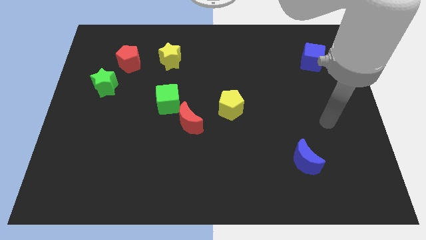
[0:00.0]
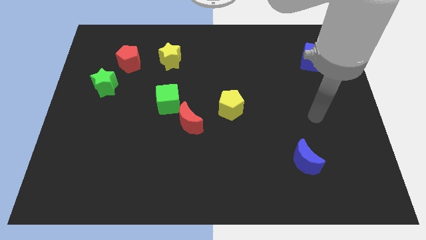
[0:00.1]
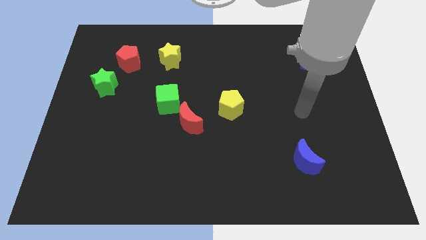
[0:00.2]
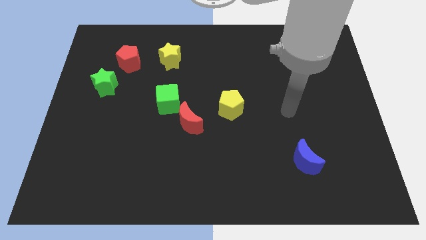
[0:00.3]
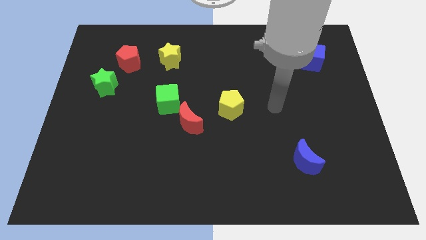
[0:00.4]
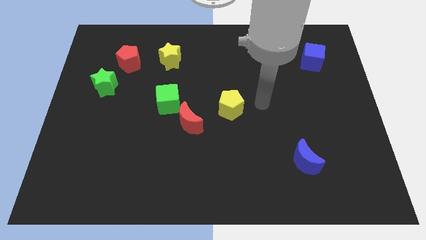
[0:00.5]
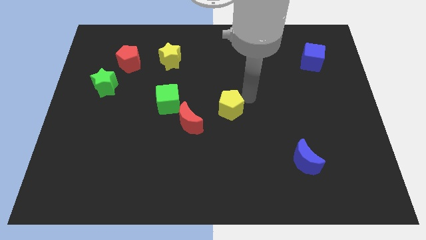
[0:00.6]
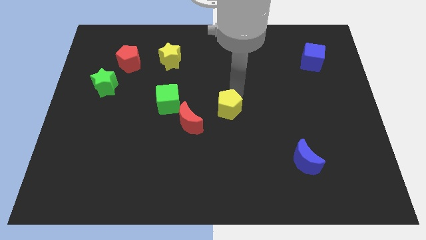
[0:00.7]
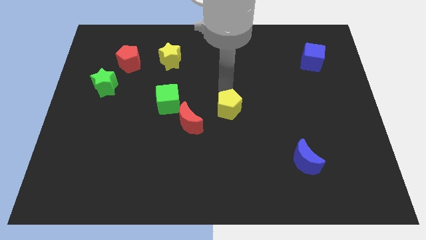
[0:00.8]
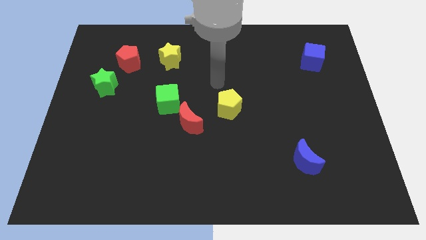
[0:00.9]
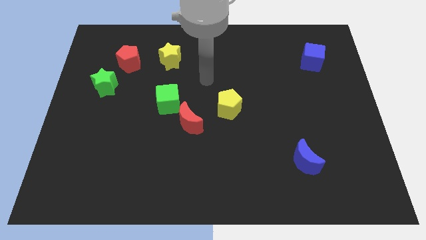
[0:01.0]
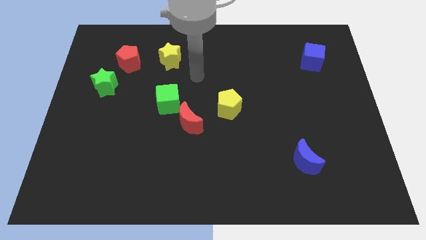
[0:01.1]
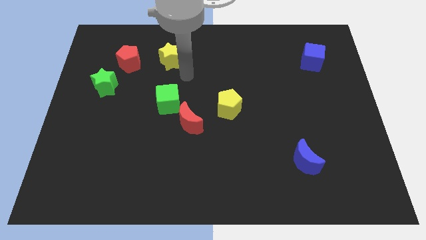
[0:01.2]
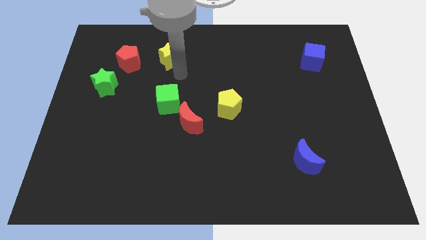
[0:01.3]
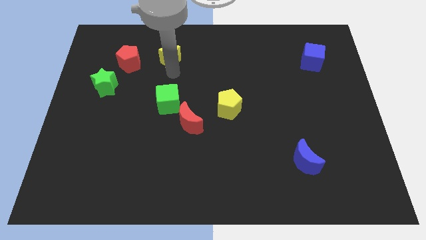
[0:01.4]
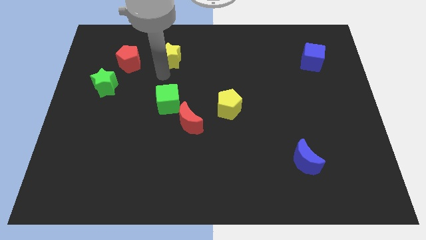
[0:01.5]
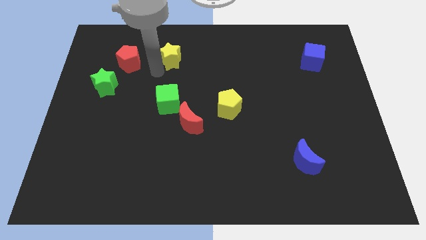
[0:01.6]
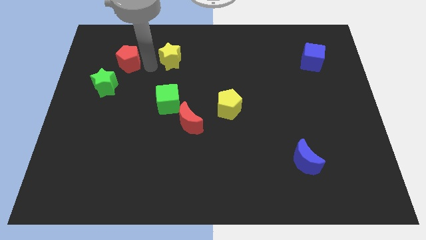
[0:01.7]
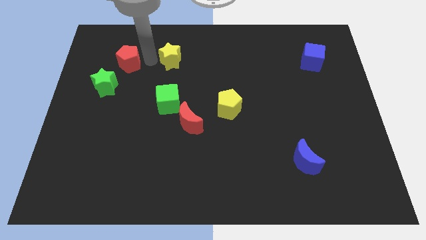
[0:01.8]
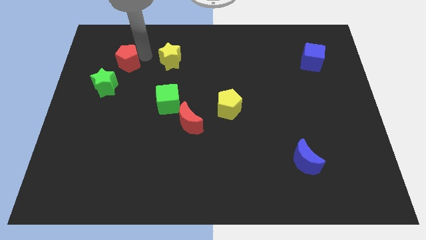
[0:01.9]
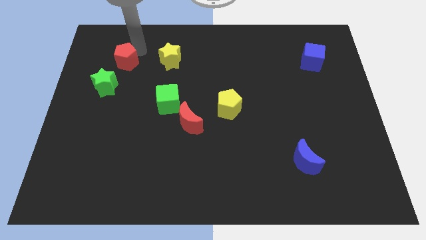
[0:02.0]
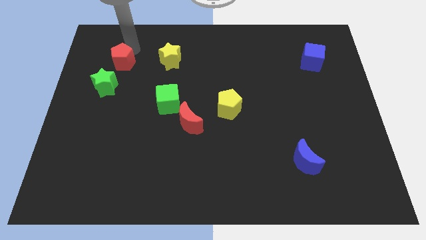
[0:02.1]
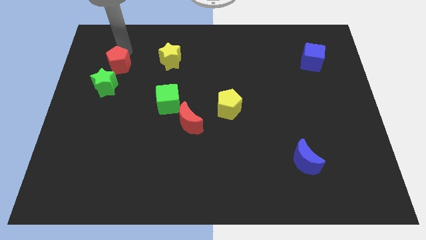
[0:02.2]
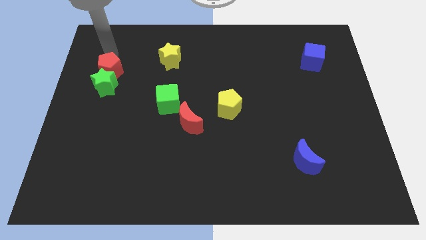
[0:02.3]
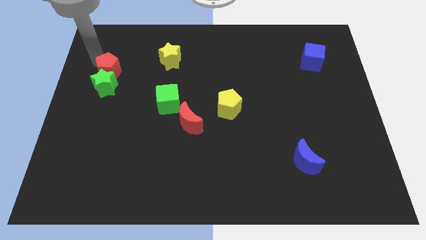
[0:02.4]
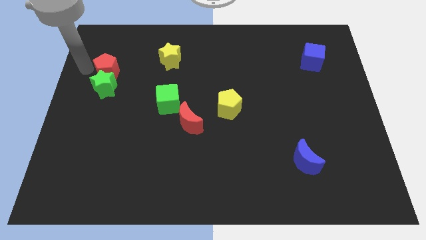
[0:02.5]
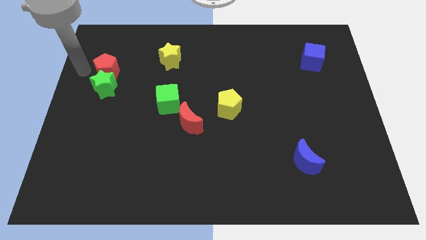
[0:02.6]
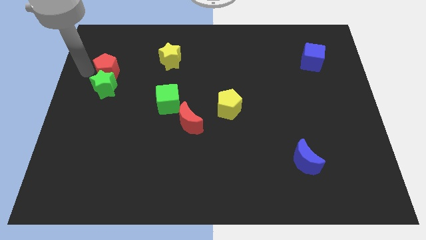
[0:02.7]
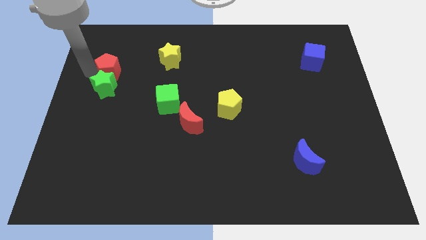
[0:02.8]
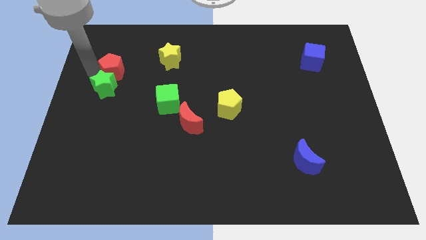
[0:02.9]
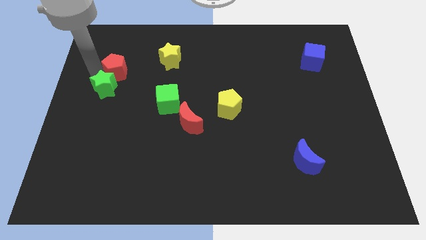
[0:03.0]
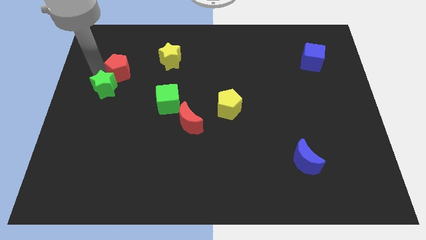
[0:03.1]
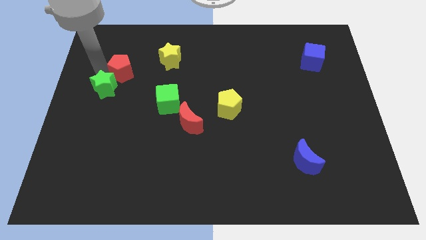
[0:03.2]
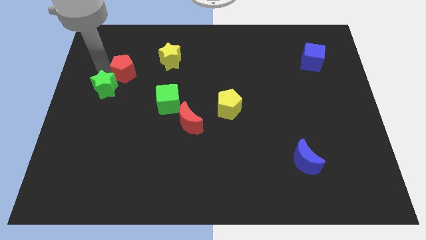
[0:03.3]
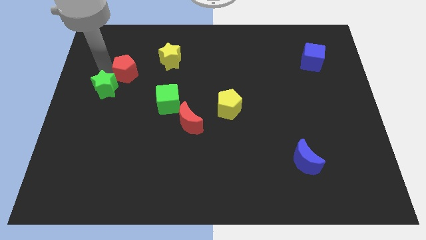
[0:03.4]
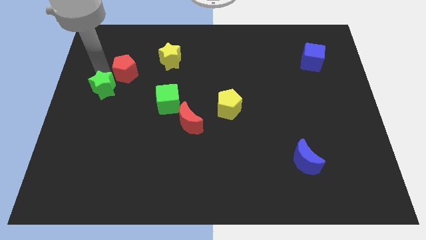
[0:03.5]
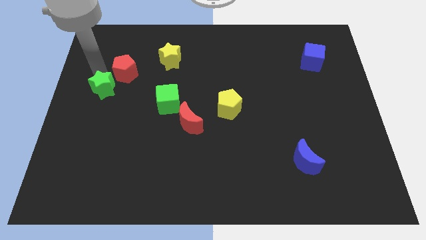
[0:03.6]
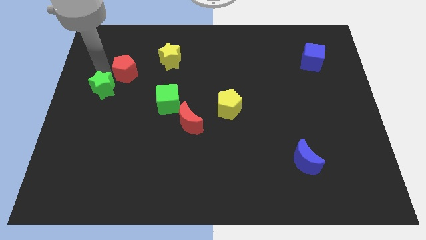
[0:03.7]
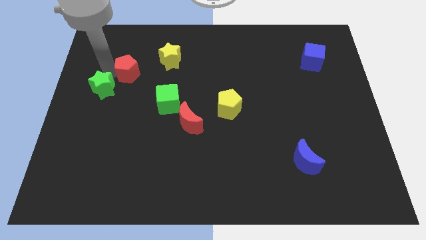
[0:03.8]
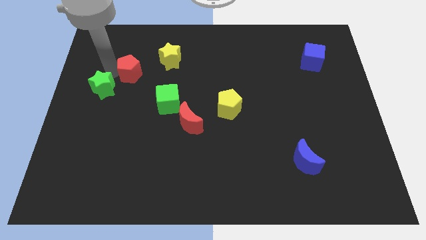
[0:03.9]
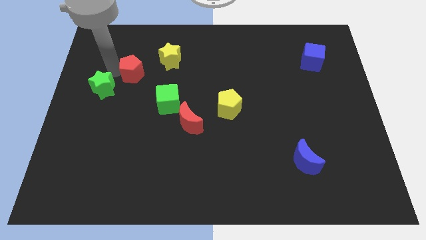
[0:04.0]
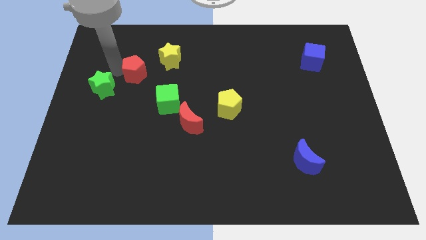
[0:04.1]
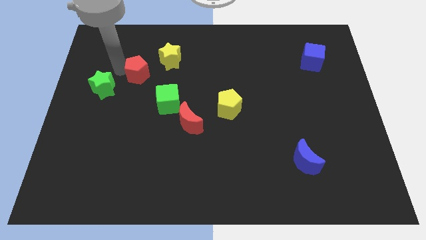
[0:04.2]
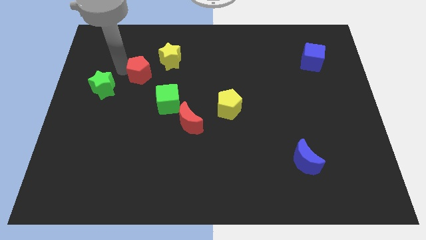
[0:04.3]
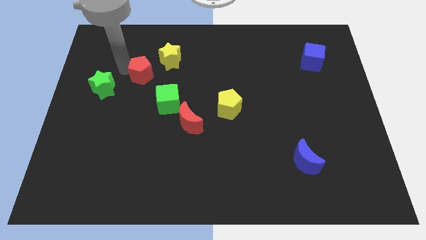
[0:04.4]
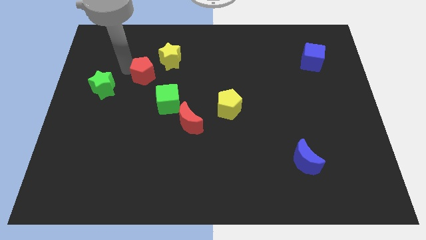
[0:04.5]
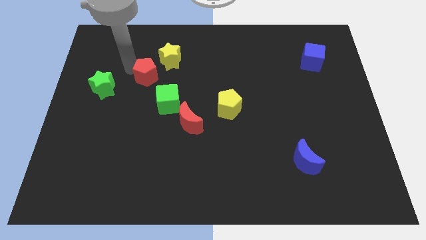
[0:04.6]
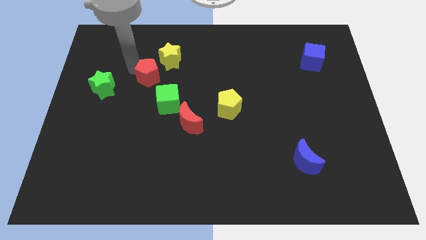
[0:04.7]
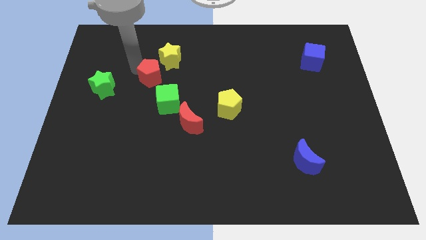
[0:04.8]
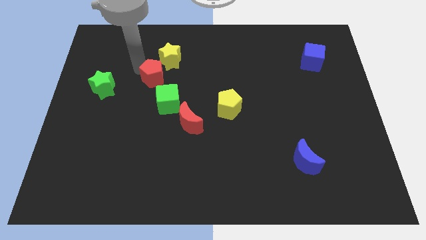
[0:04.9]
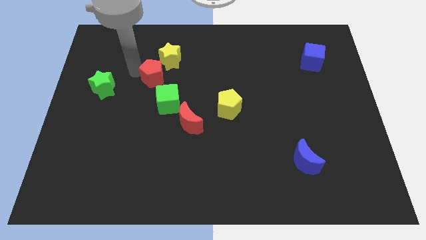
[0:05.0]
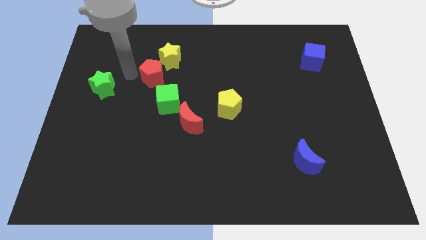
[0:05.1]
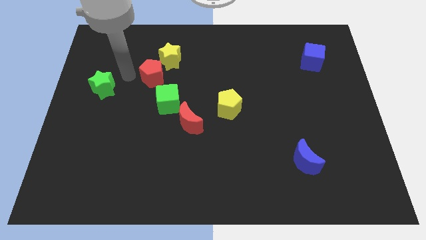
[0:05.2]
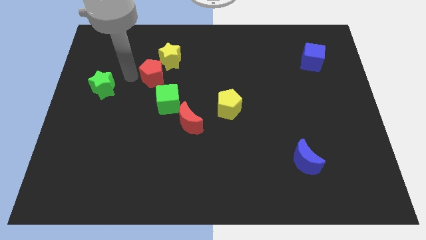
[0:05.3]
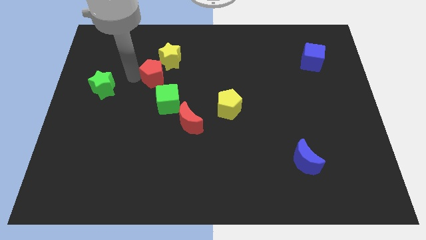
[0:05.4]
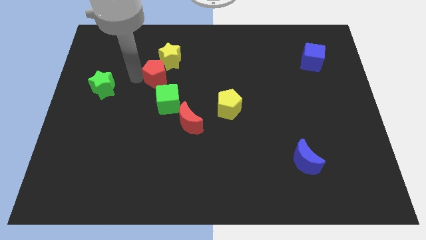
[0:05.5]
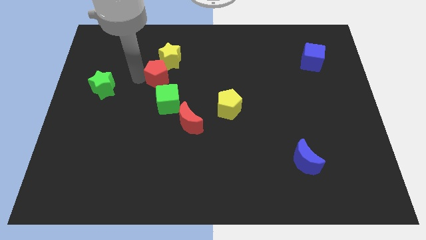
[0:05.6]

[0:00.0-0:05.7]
slightly push the red pentagon right

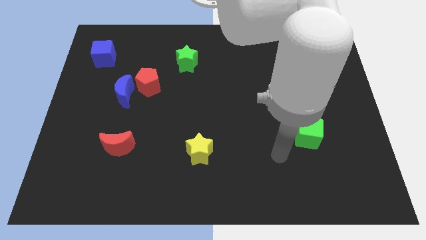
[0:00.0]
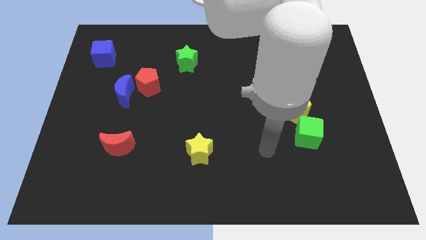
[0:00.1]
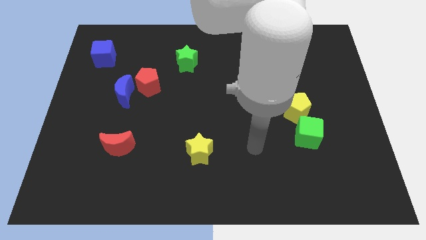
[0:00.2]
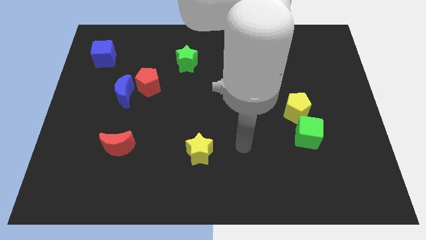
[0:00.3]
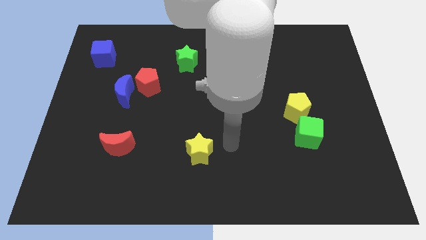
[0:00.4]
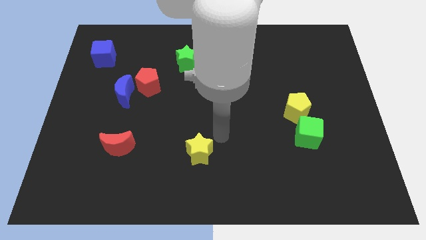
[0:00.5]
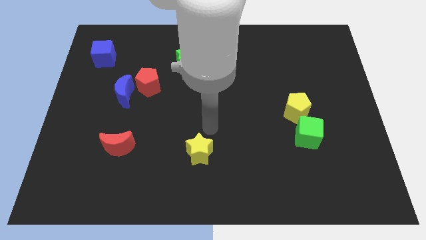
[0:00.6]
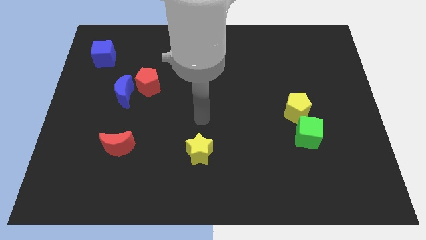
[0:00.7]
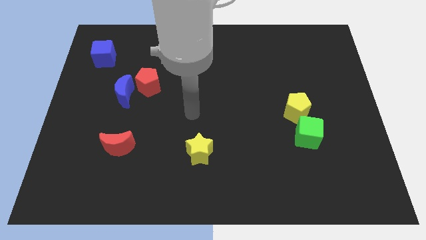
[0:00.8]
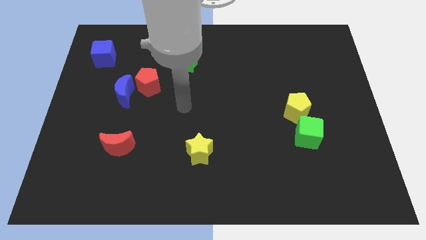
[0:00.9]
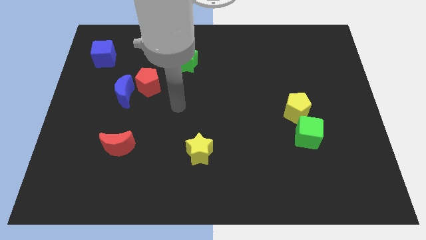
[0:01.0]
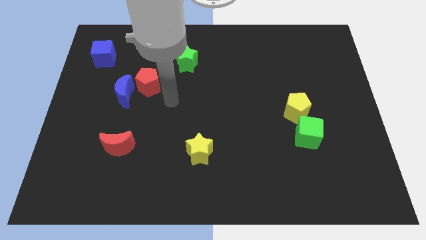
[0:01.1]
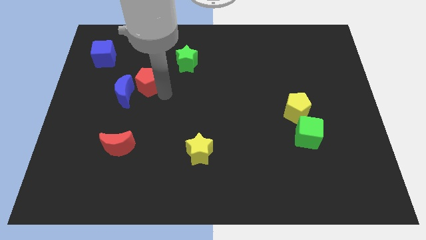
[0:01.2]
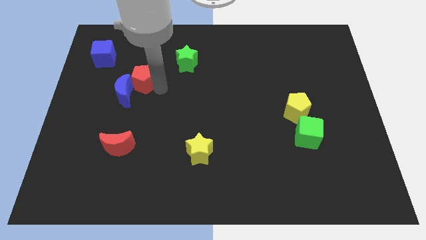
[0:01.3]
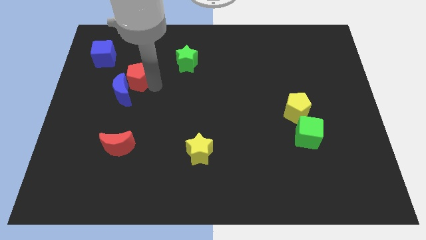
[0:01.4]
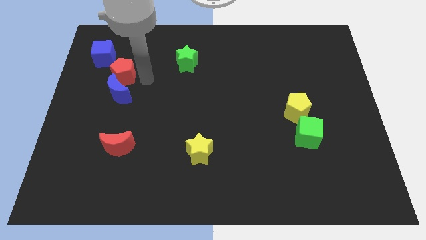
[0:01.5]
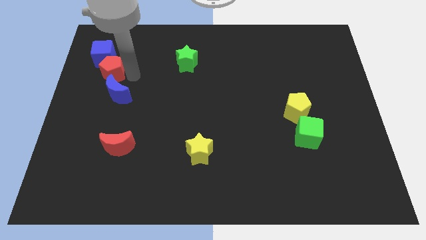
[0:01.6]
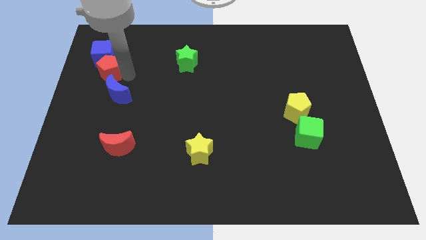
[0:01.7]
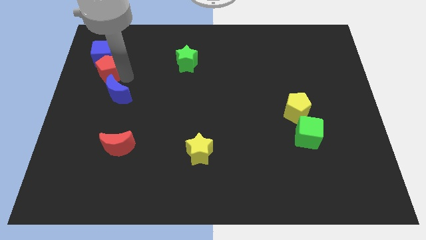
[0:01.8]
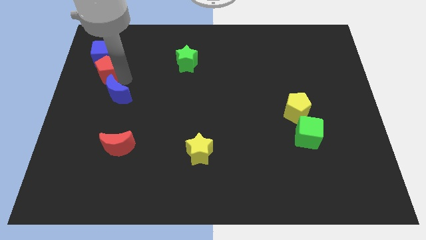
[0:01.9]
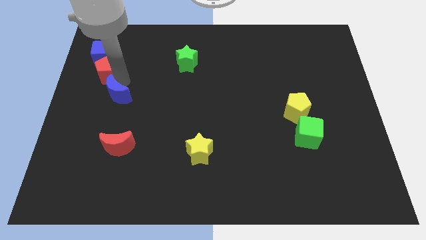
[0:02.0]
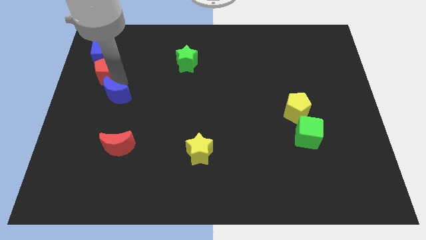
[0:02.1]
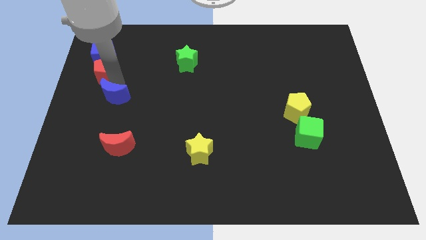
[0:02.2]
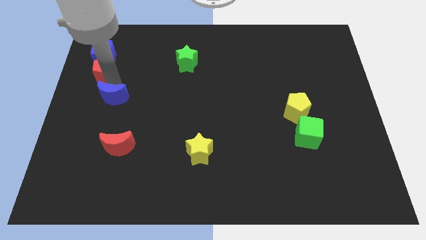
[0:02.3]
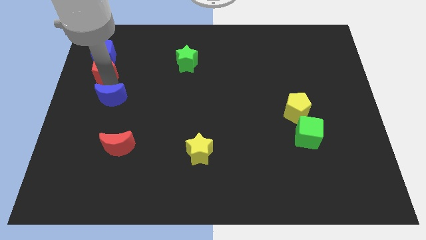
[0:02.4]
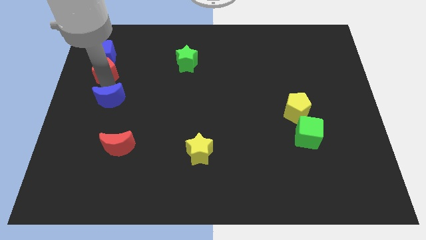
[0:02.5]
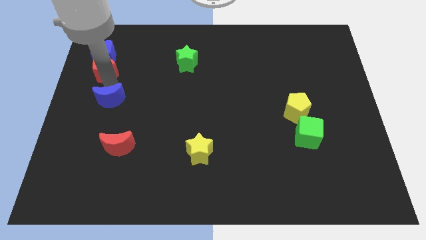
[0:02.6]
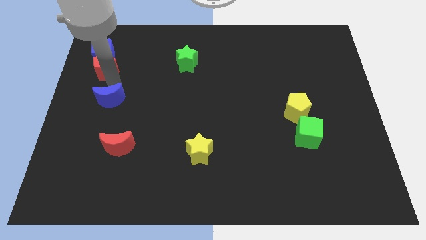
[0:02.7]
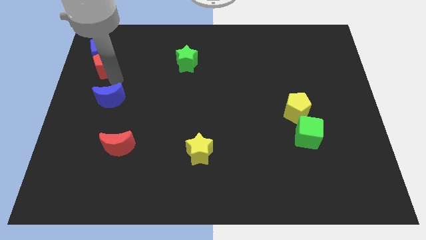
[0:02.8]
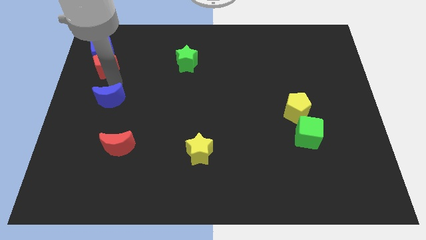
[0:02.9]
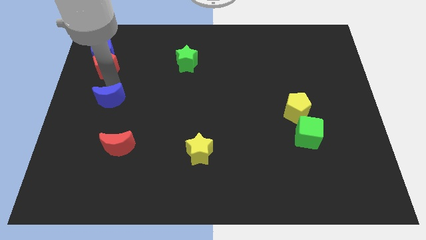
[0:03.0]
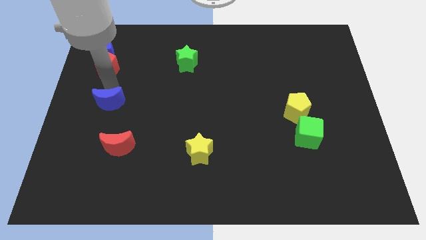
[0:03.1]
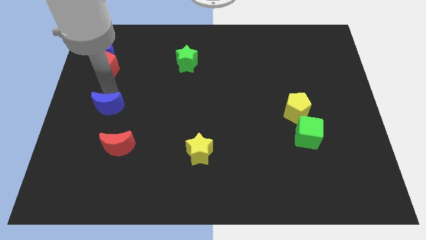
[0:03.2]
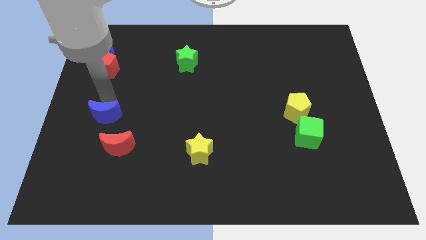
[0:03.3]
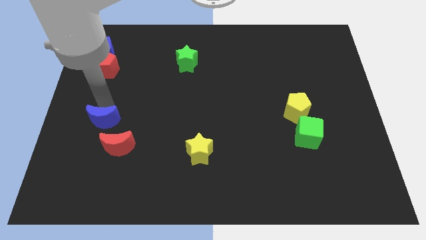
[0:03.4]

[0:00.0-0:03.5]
slightly slide the blue moon down
